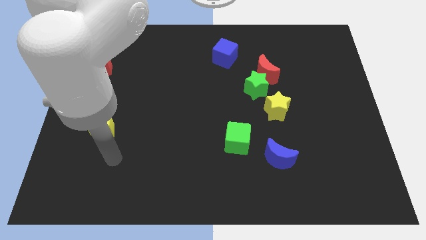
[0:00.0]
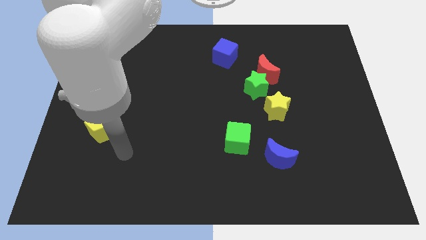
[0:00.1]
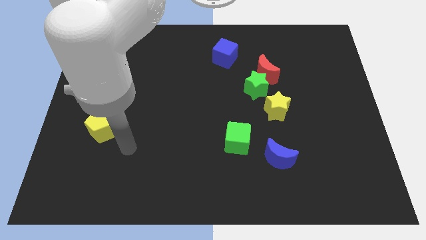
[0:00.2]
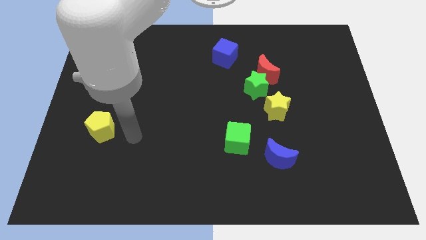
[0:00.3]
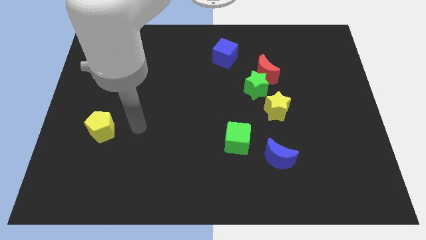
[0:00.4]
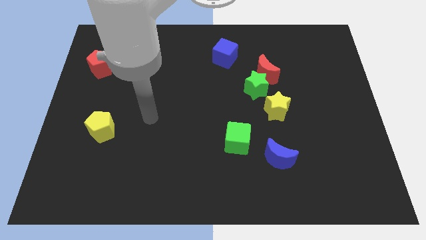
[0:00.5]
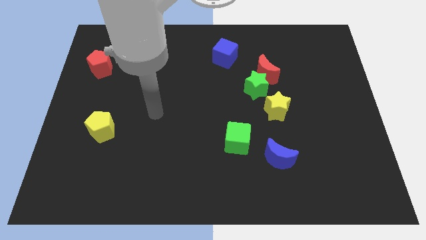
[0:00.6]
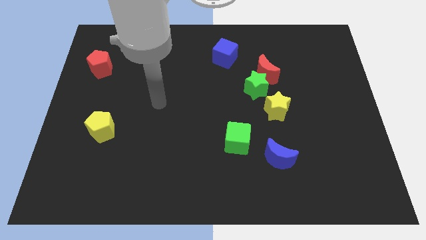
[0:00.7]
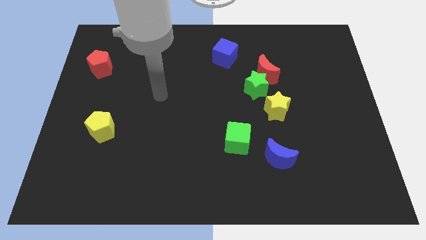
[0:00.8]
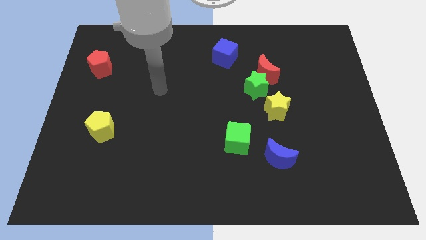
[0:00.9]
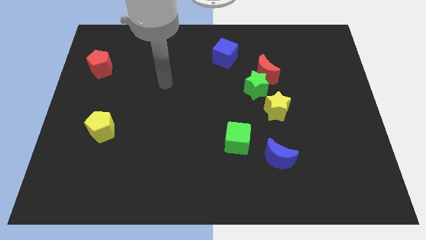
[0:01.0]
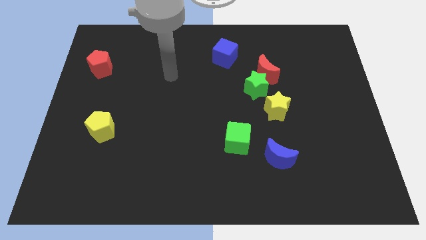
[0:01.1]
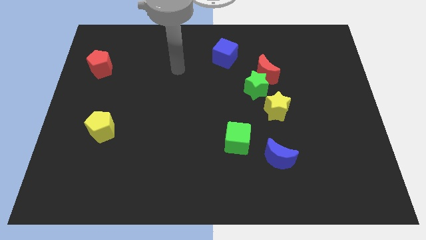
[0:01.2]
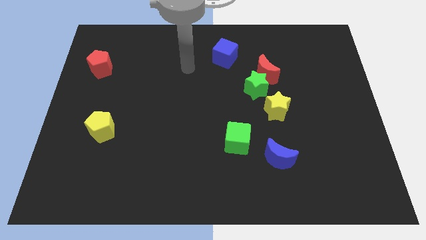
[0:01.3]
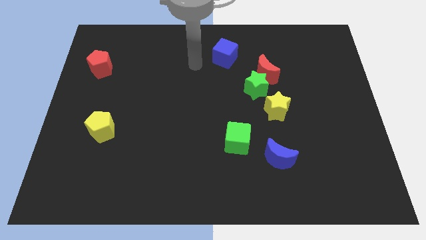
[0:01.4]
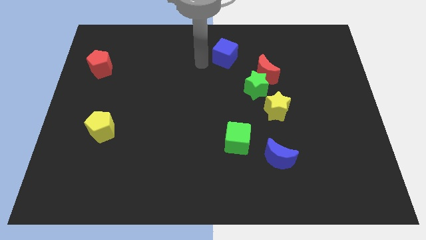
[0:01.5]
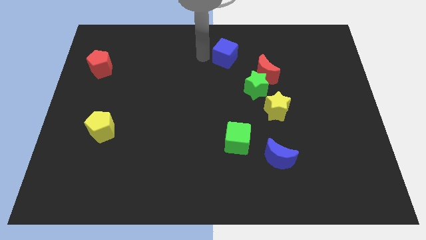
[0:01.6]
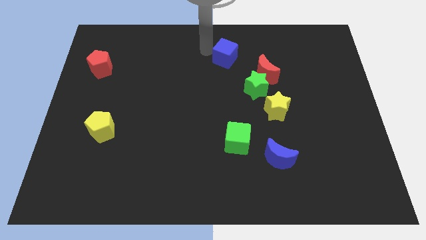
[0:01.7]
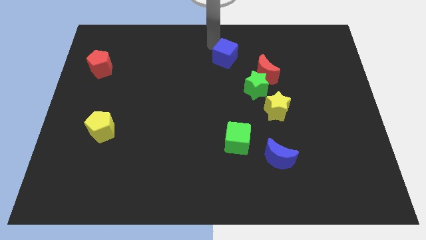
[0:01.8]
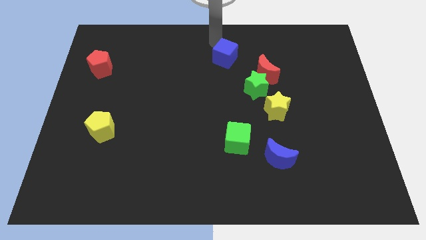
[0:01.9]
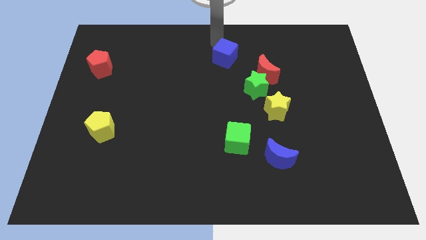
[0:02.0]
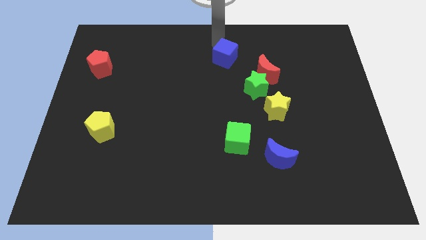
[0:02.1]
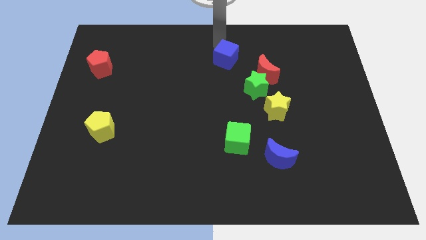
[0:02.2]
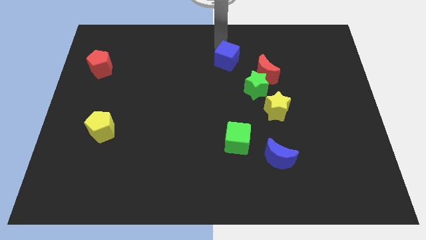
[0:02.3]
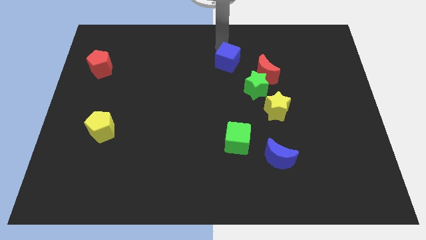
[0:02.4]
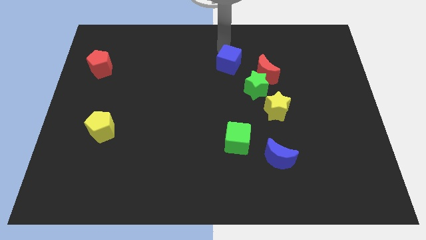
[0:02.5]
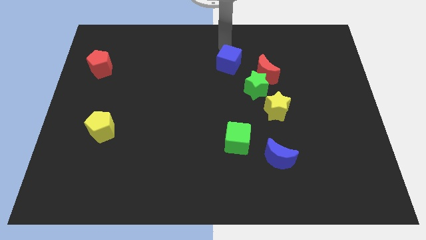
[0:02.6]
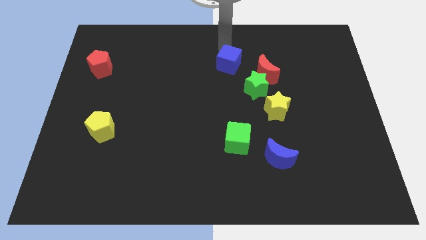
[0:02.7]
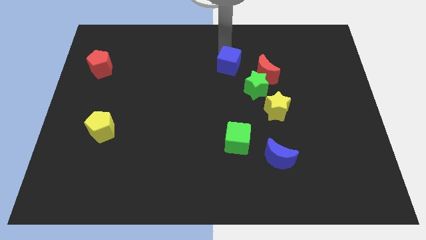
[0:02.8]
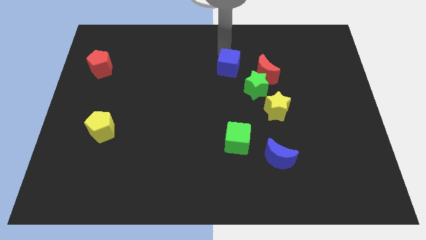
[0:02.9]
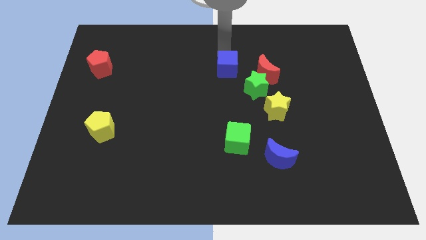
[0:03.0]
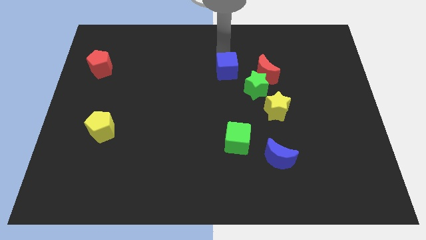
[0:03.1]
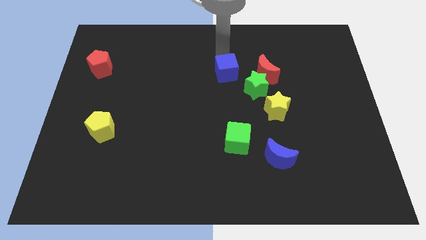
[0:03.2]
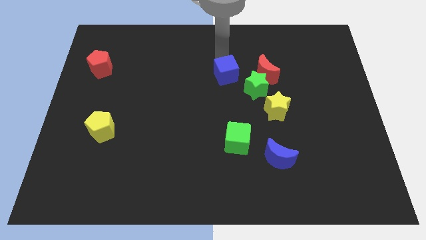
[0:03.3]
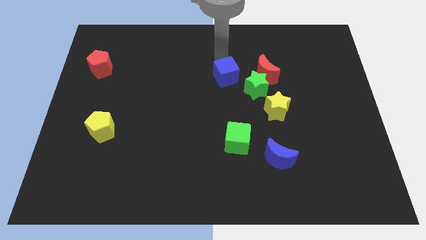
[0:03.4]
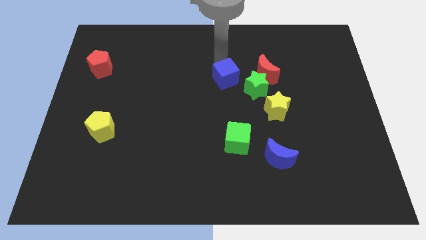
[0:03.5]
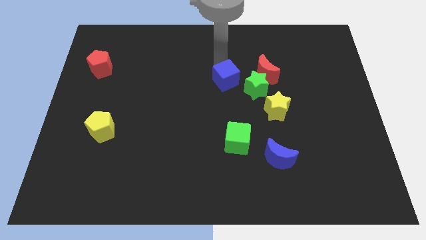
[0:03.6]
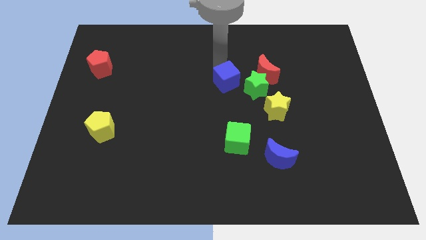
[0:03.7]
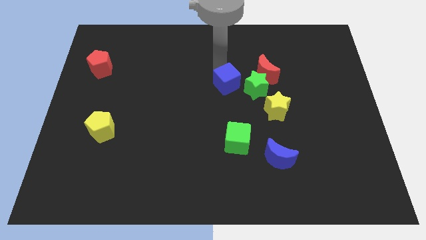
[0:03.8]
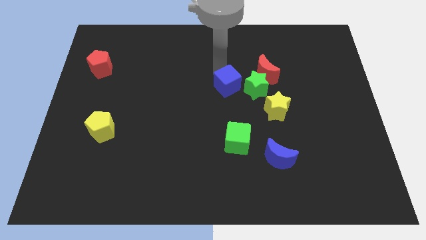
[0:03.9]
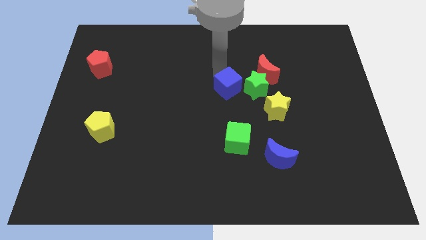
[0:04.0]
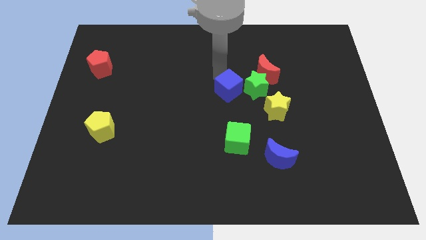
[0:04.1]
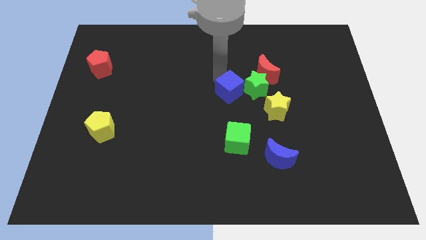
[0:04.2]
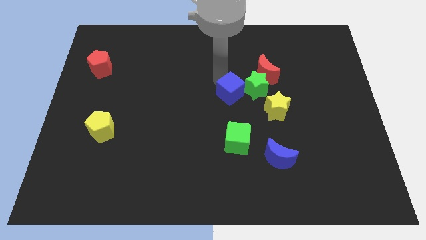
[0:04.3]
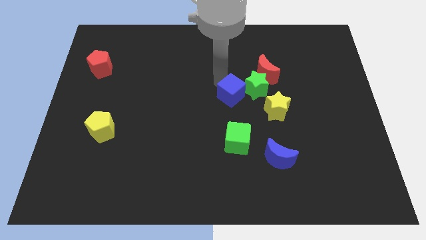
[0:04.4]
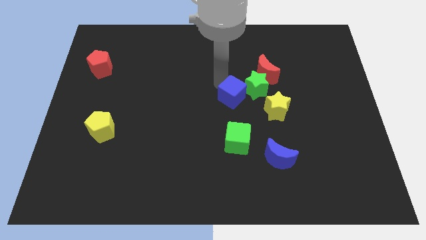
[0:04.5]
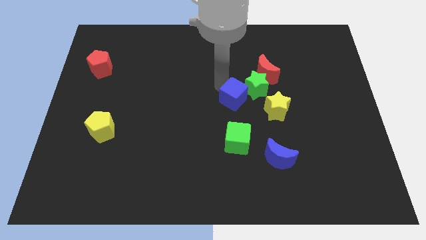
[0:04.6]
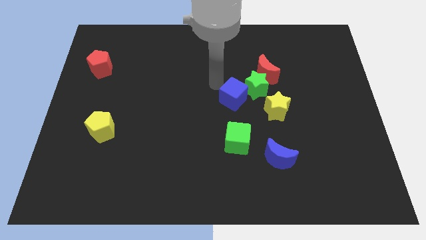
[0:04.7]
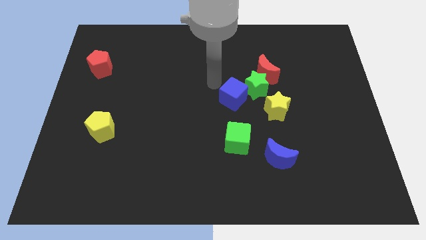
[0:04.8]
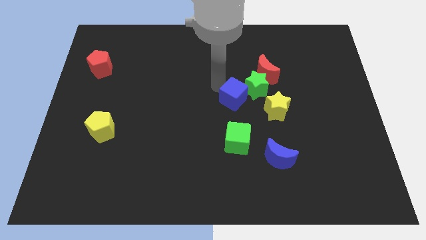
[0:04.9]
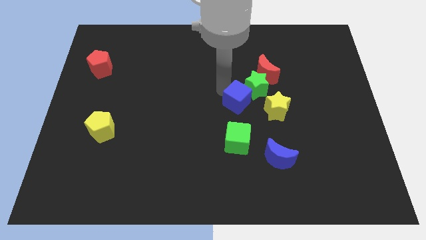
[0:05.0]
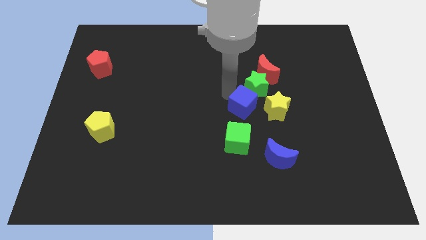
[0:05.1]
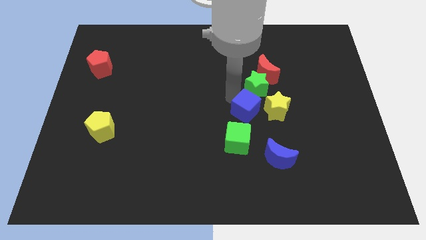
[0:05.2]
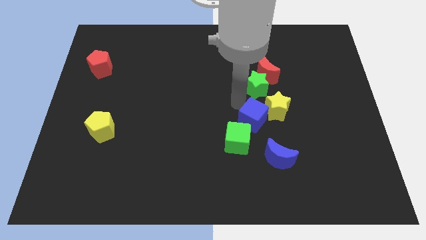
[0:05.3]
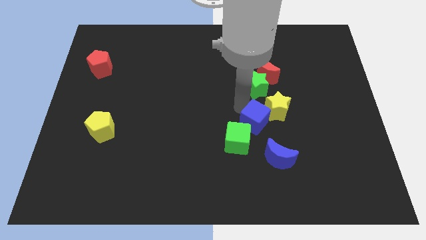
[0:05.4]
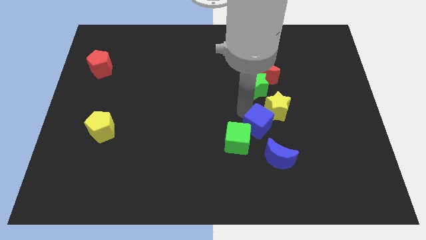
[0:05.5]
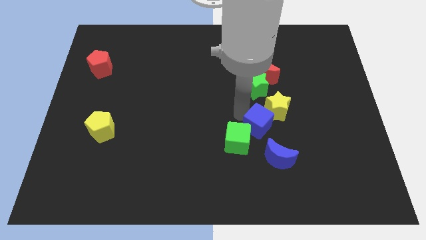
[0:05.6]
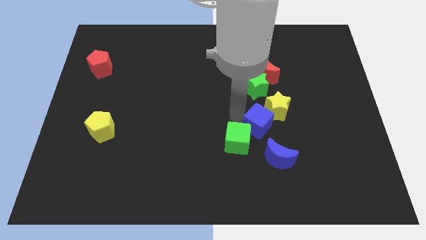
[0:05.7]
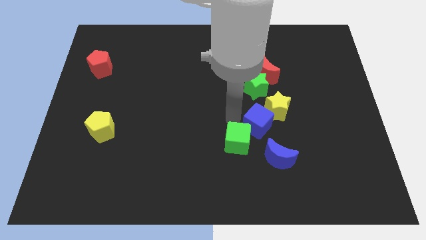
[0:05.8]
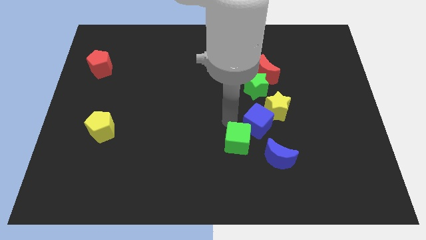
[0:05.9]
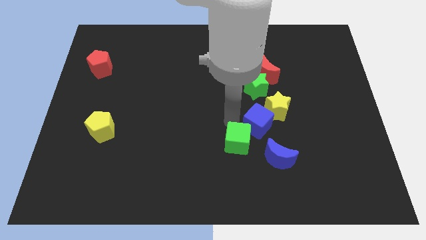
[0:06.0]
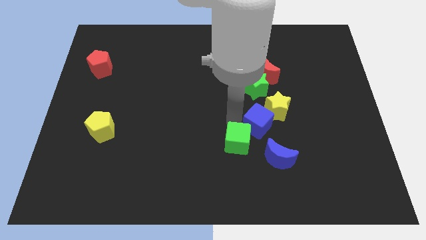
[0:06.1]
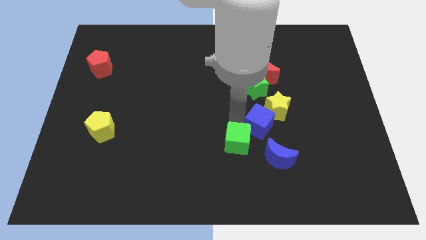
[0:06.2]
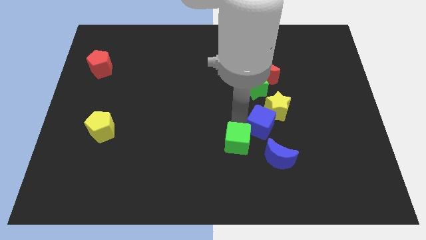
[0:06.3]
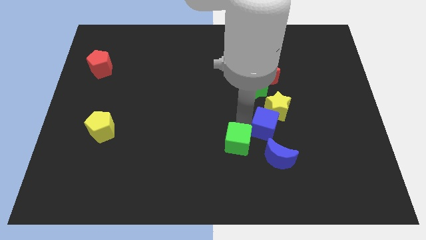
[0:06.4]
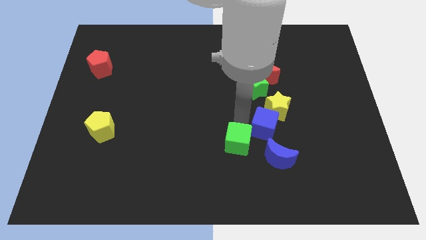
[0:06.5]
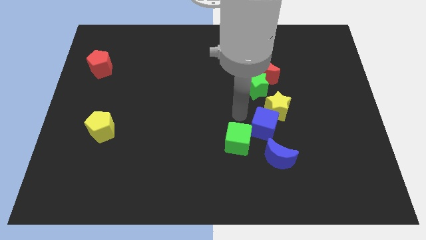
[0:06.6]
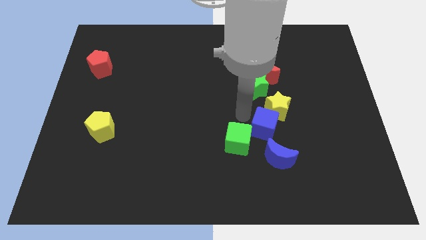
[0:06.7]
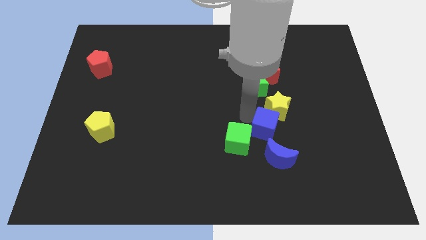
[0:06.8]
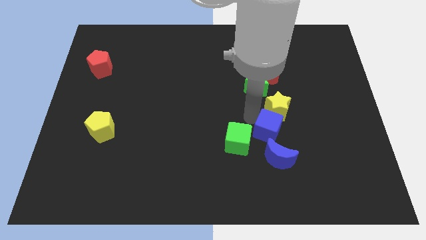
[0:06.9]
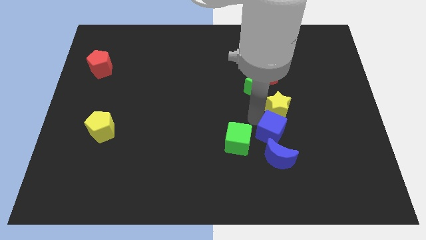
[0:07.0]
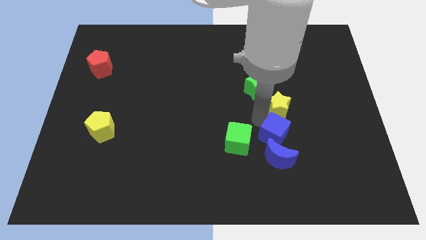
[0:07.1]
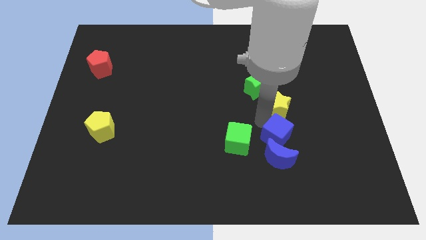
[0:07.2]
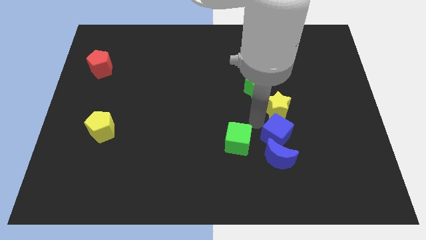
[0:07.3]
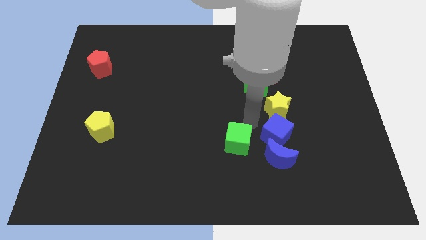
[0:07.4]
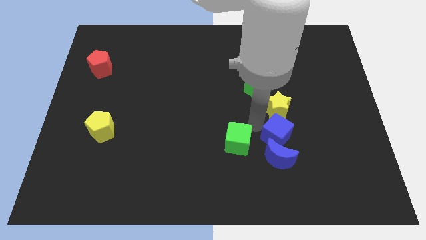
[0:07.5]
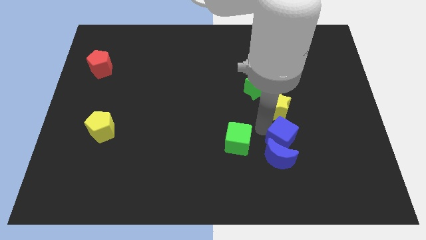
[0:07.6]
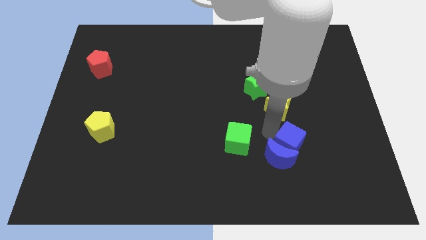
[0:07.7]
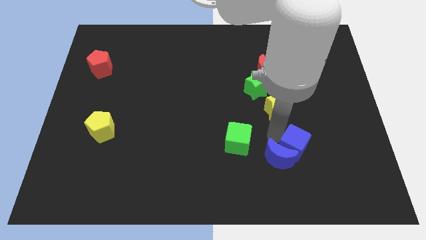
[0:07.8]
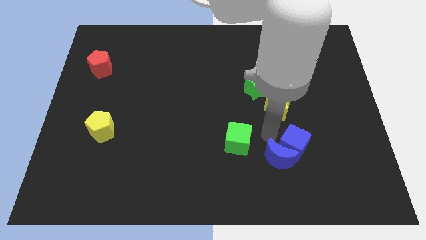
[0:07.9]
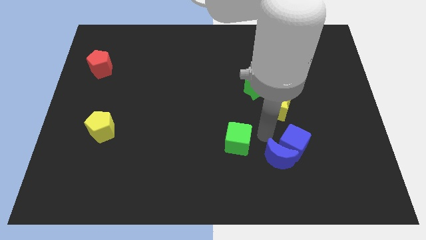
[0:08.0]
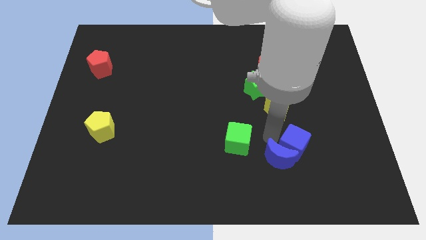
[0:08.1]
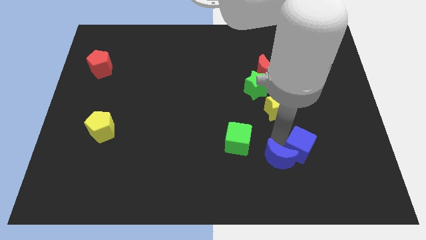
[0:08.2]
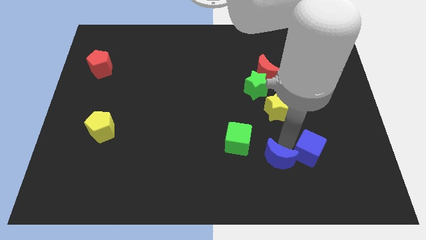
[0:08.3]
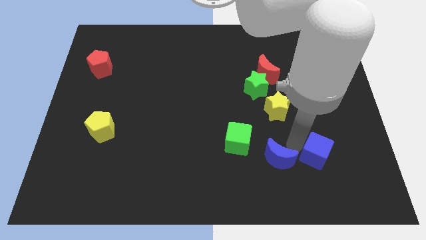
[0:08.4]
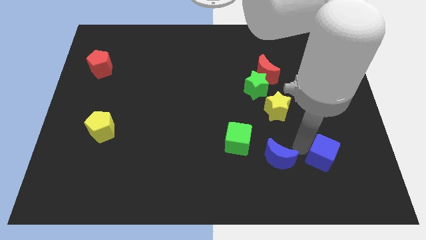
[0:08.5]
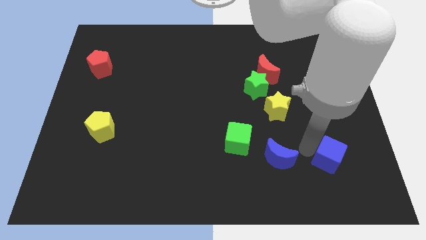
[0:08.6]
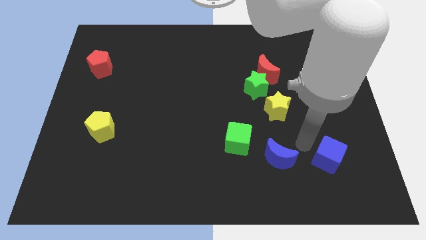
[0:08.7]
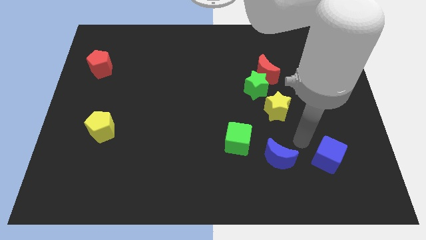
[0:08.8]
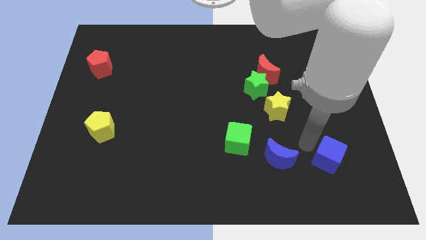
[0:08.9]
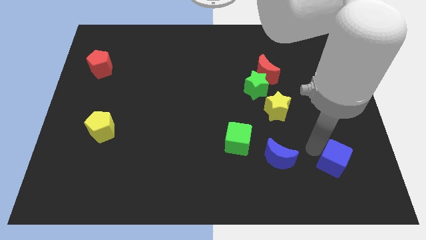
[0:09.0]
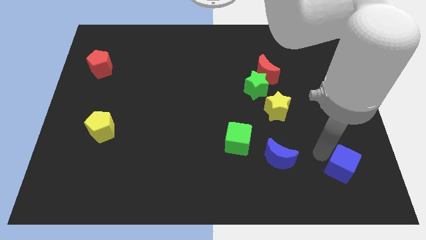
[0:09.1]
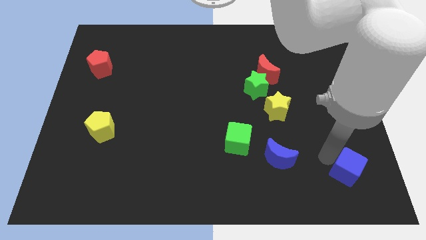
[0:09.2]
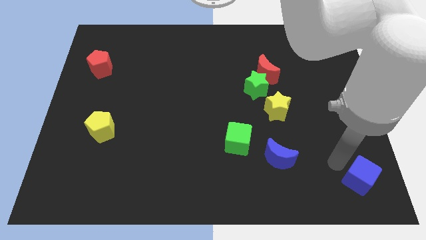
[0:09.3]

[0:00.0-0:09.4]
push the blue cube to the bottom right
